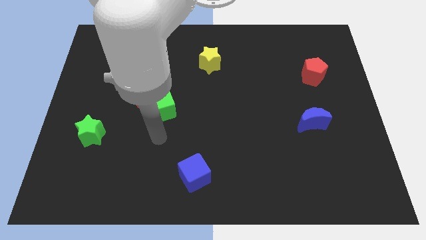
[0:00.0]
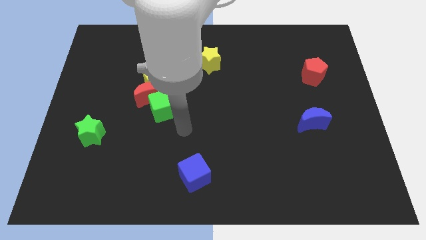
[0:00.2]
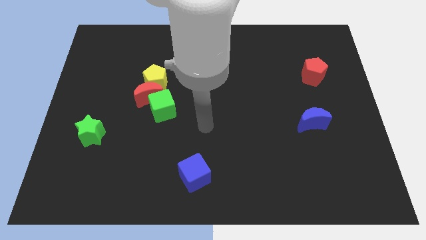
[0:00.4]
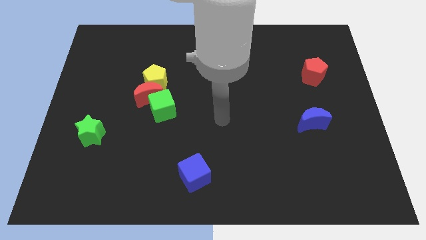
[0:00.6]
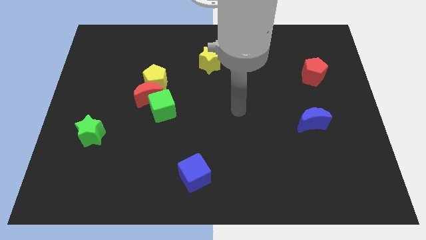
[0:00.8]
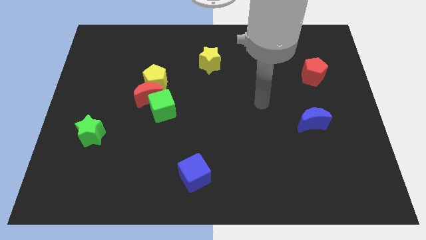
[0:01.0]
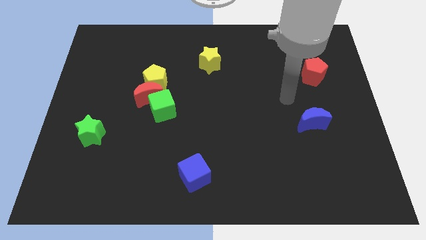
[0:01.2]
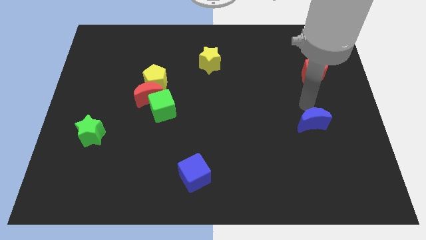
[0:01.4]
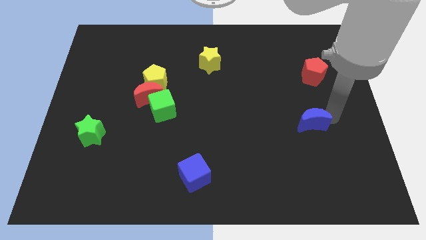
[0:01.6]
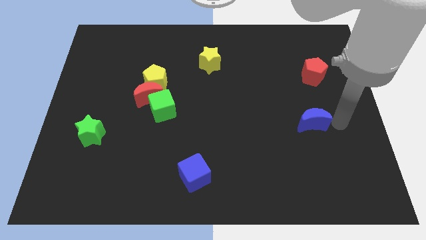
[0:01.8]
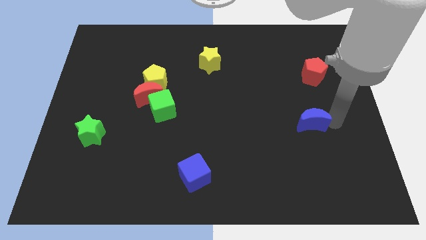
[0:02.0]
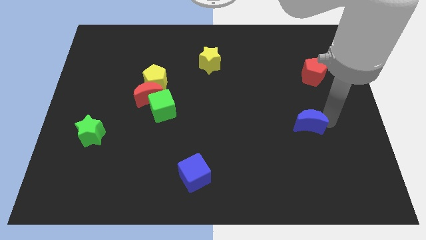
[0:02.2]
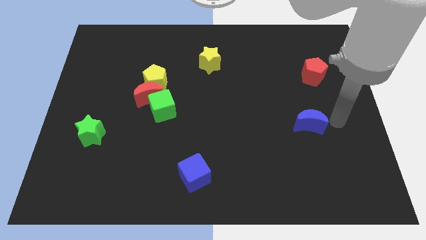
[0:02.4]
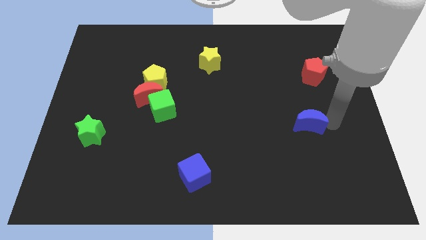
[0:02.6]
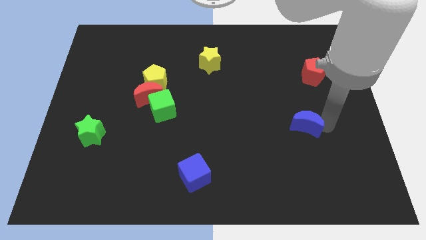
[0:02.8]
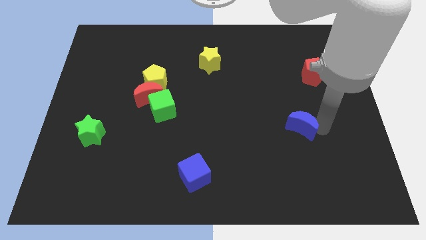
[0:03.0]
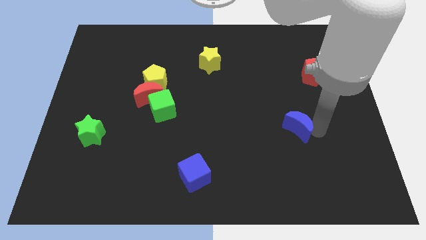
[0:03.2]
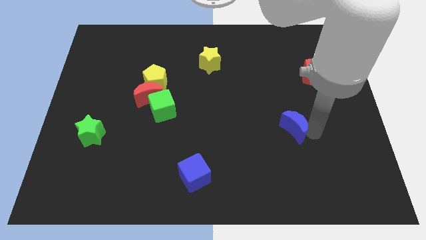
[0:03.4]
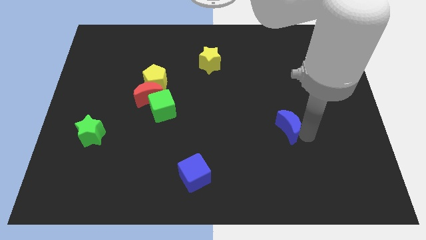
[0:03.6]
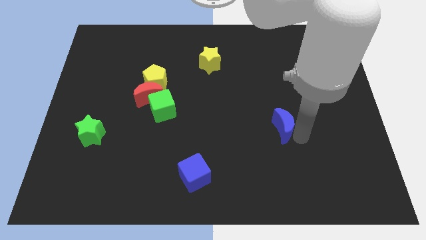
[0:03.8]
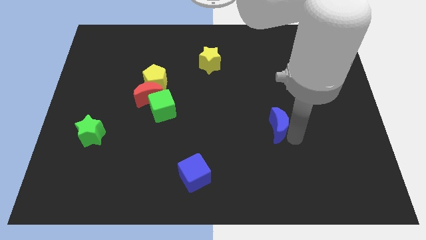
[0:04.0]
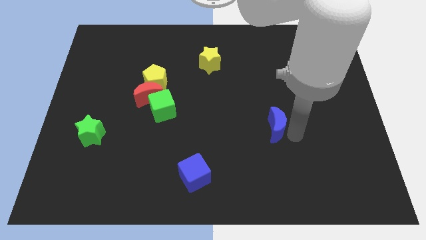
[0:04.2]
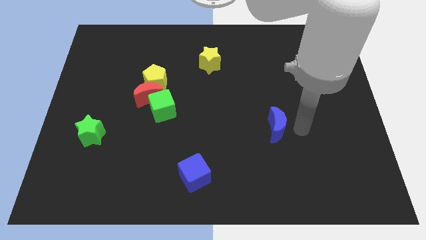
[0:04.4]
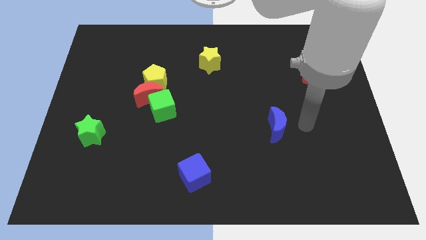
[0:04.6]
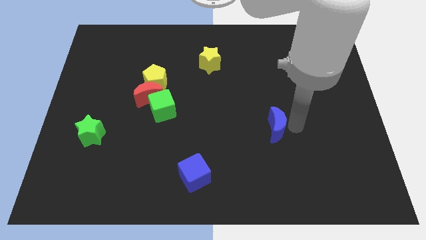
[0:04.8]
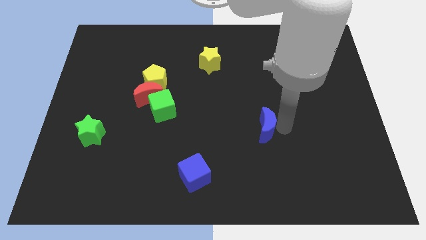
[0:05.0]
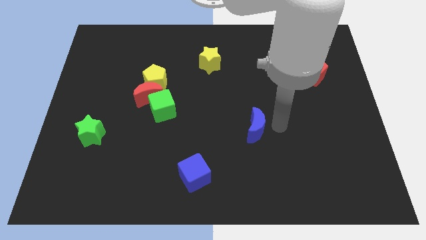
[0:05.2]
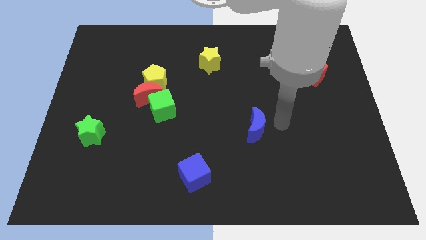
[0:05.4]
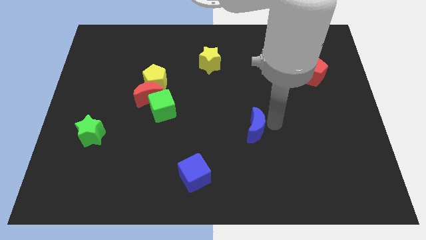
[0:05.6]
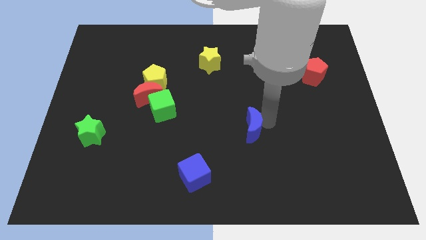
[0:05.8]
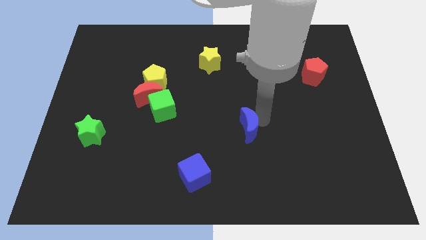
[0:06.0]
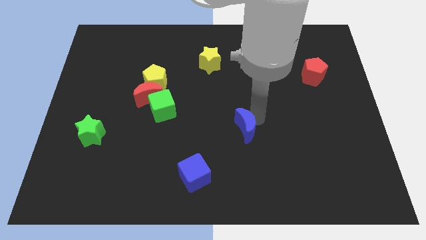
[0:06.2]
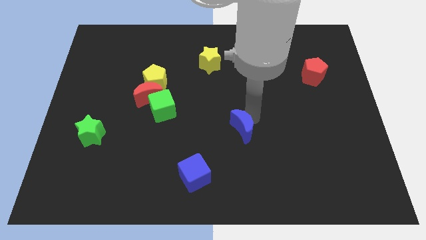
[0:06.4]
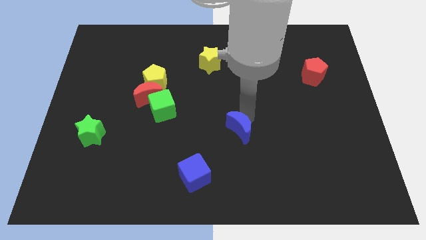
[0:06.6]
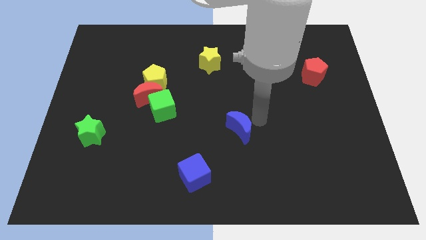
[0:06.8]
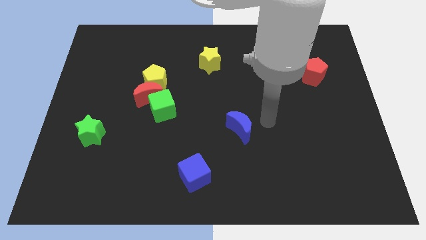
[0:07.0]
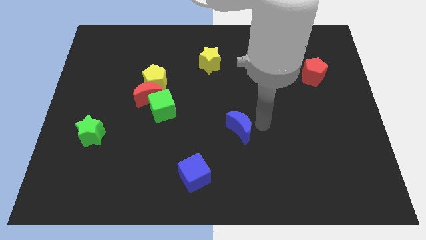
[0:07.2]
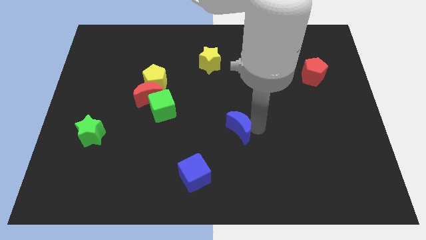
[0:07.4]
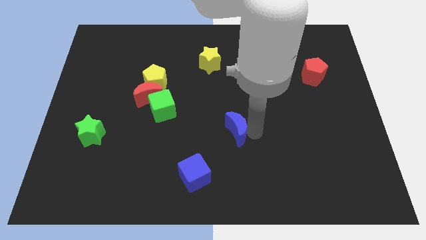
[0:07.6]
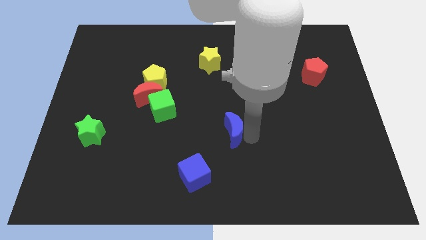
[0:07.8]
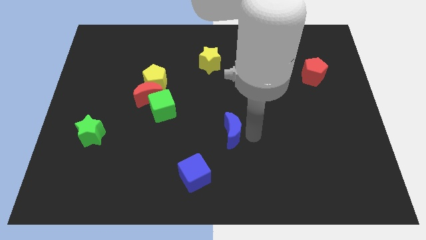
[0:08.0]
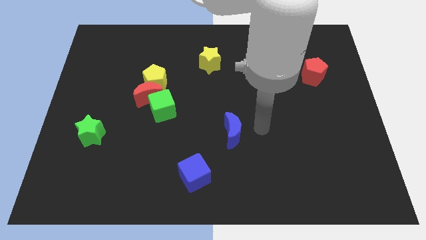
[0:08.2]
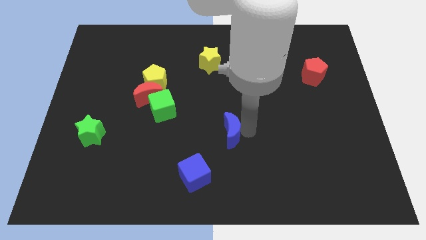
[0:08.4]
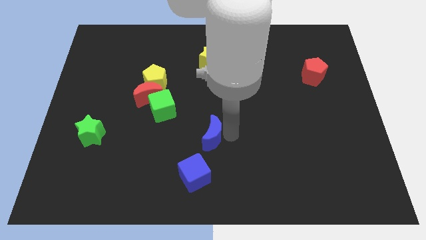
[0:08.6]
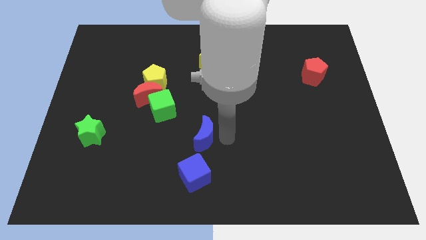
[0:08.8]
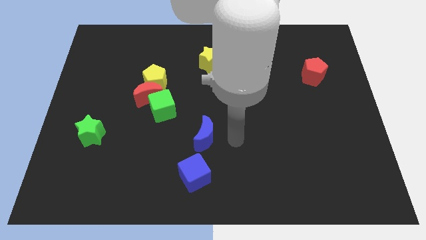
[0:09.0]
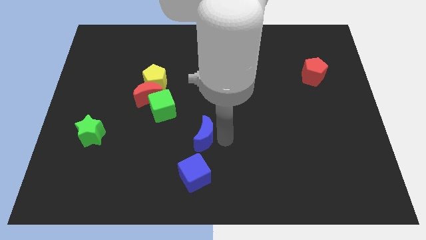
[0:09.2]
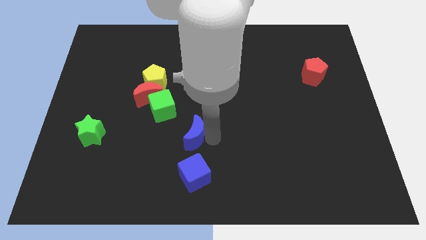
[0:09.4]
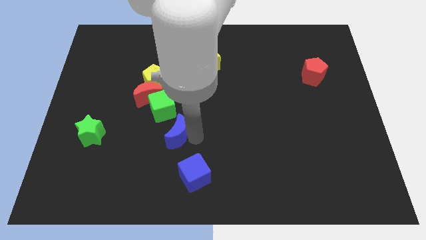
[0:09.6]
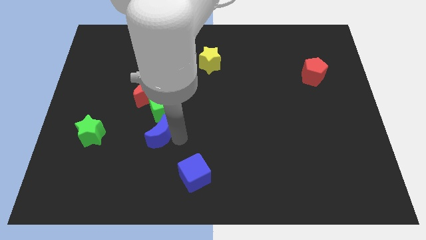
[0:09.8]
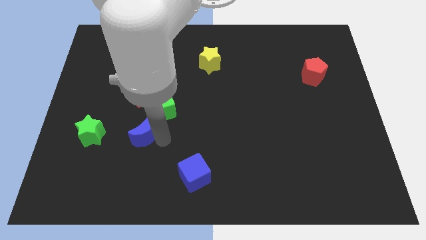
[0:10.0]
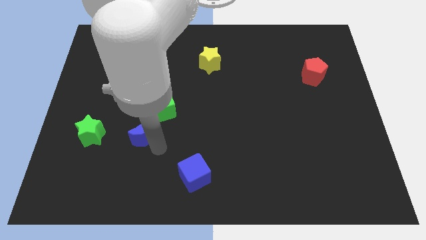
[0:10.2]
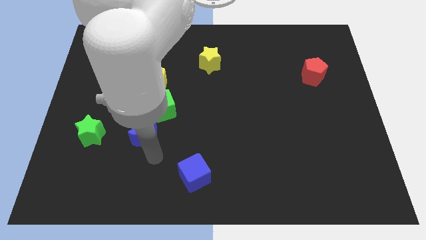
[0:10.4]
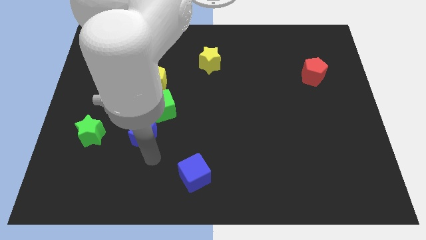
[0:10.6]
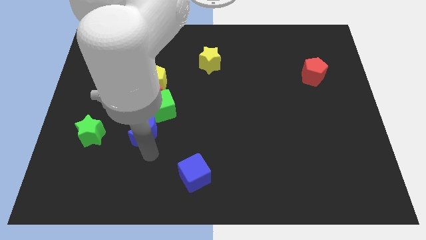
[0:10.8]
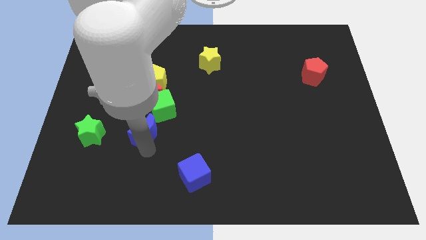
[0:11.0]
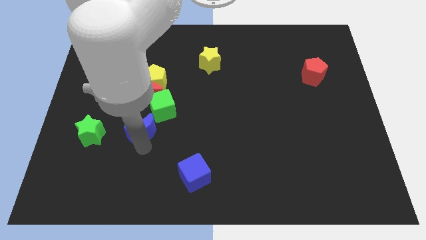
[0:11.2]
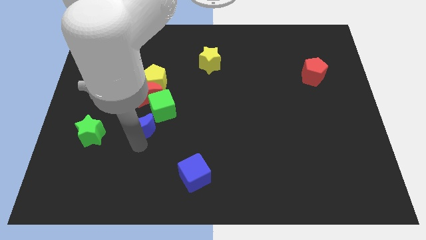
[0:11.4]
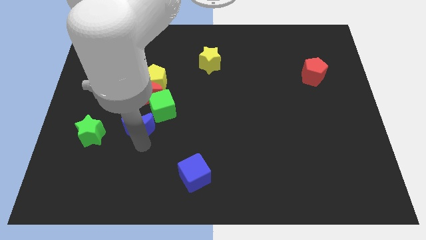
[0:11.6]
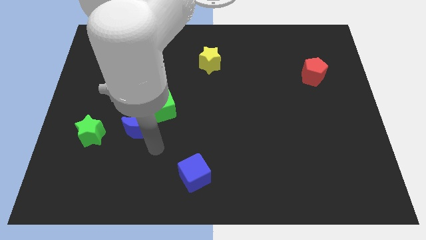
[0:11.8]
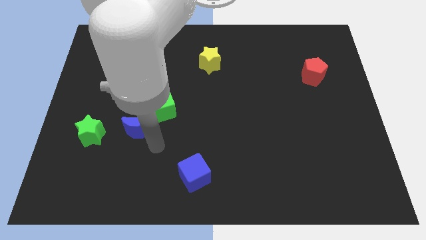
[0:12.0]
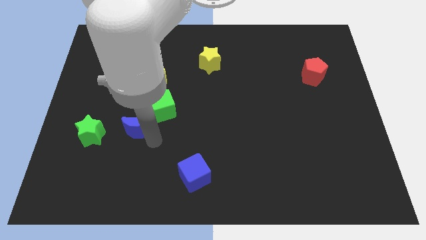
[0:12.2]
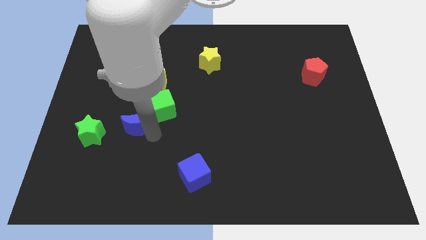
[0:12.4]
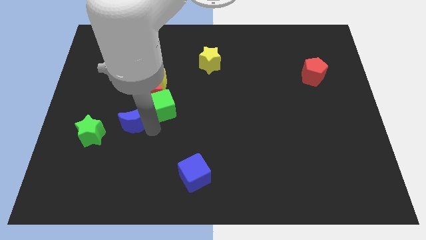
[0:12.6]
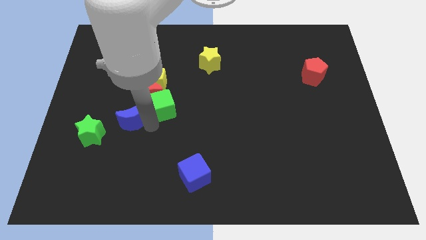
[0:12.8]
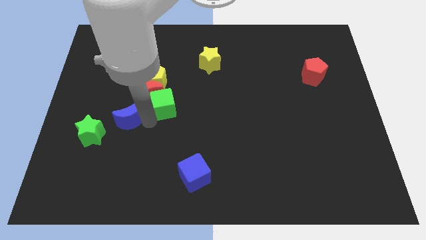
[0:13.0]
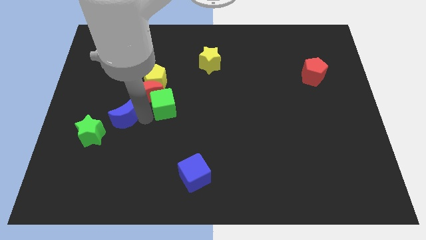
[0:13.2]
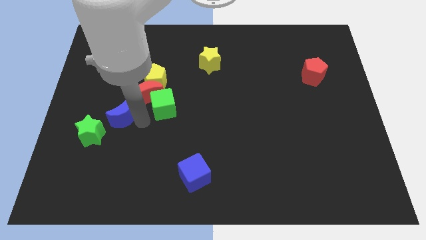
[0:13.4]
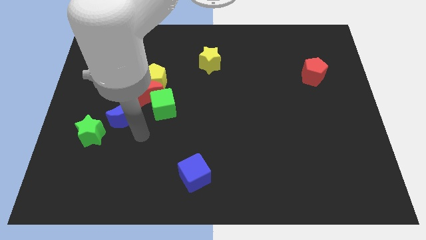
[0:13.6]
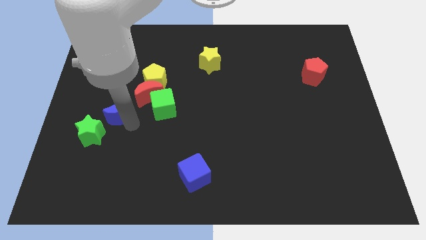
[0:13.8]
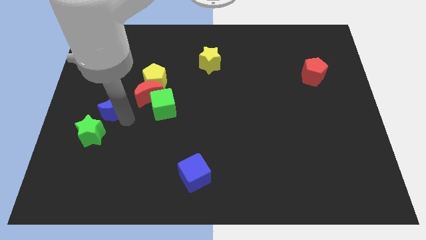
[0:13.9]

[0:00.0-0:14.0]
move the blue moon left of the red moon

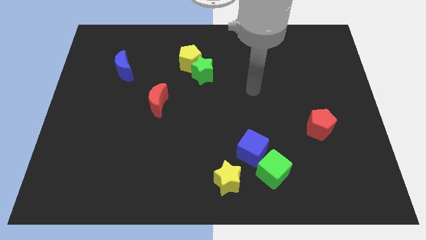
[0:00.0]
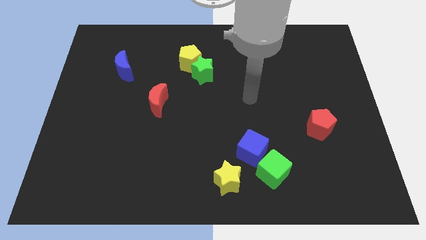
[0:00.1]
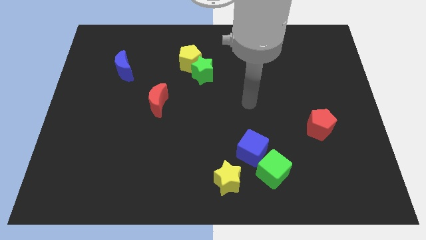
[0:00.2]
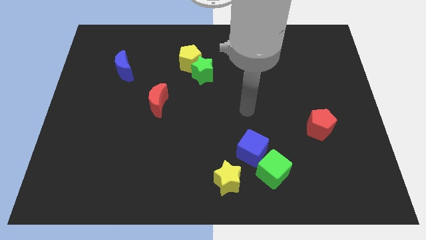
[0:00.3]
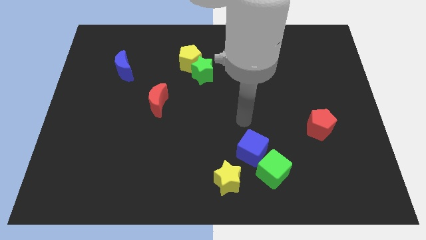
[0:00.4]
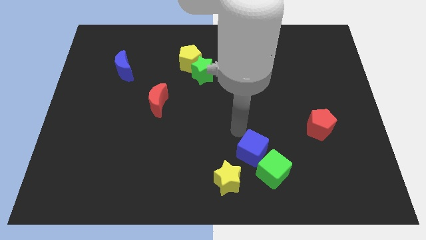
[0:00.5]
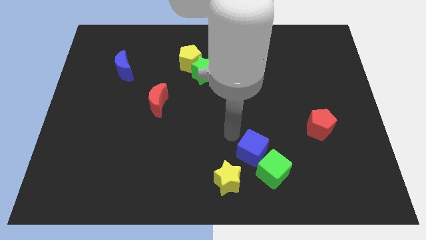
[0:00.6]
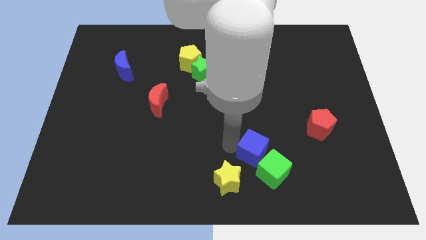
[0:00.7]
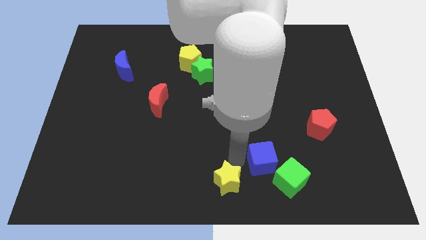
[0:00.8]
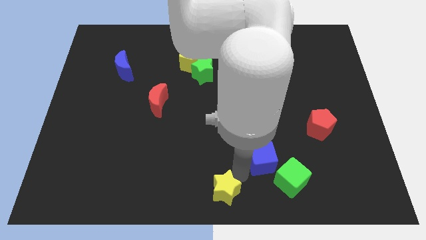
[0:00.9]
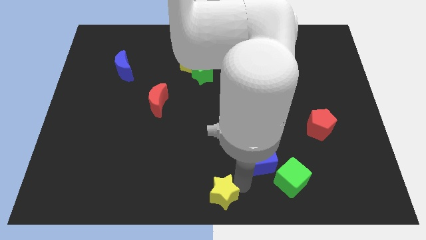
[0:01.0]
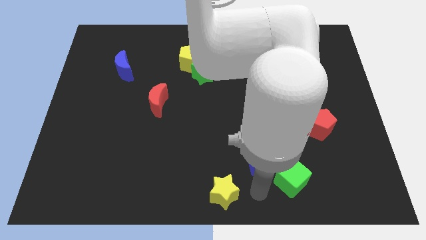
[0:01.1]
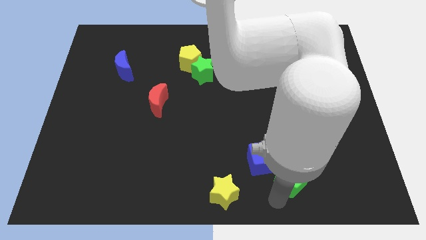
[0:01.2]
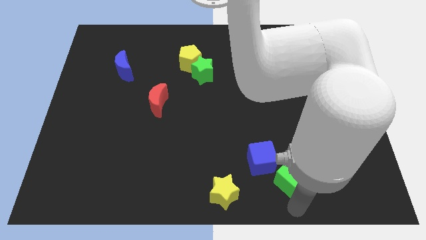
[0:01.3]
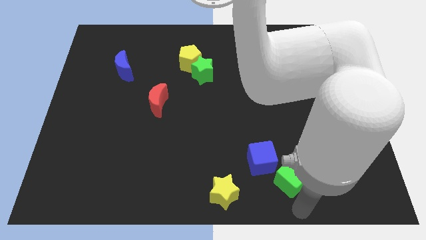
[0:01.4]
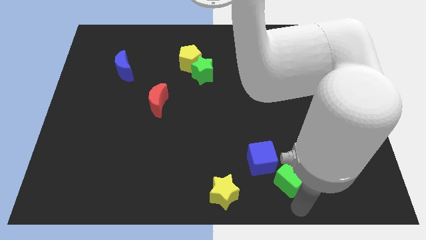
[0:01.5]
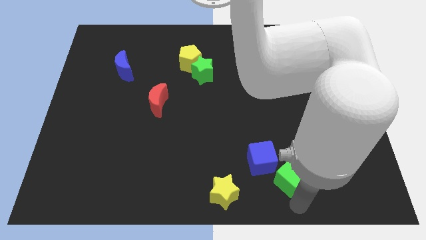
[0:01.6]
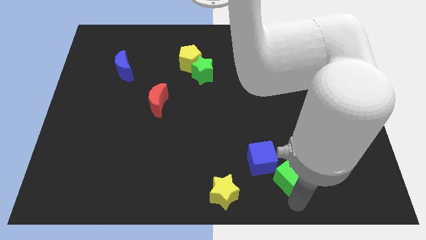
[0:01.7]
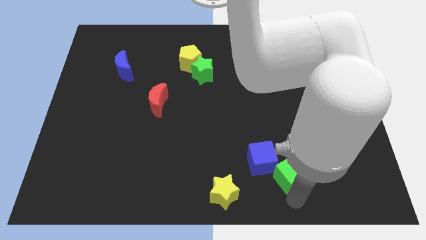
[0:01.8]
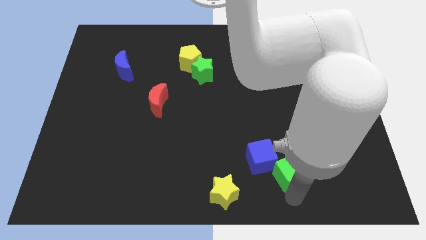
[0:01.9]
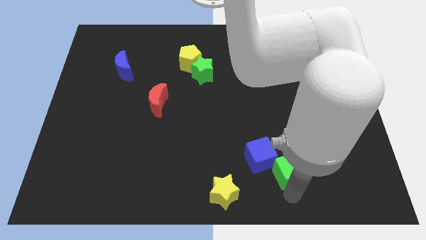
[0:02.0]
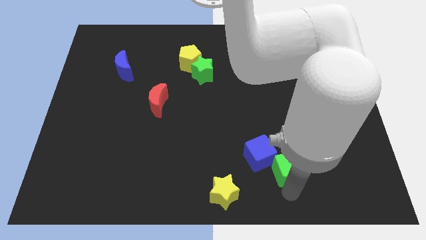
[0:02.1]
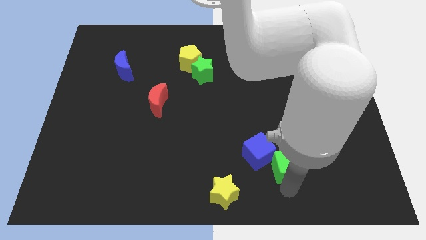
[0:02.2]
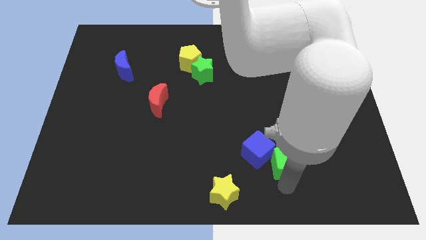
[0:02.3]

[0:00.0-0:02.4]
push the green cube to the bottom left of the red pentagon
